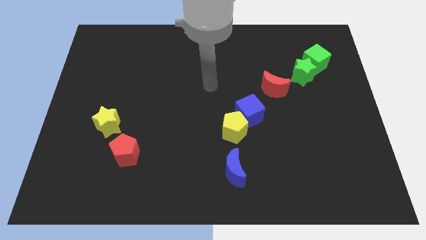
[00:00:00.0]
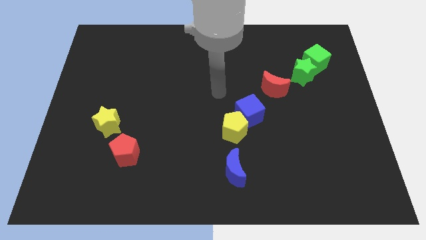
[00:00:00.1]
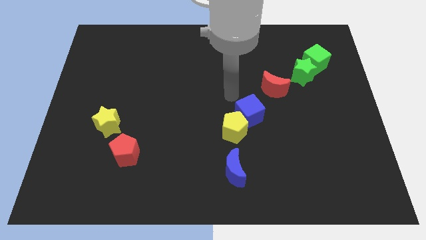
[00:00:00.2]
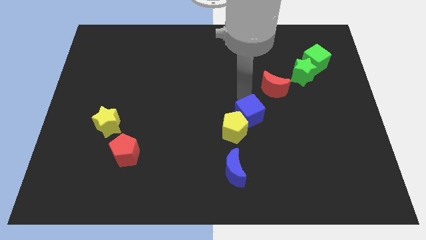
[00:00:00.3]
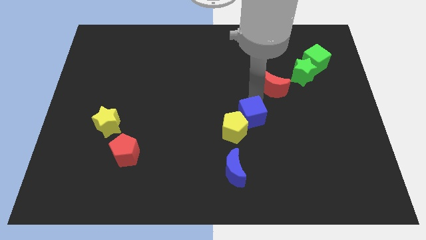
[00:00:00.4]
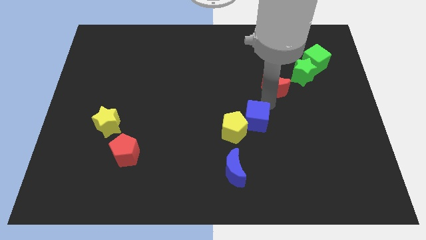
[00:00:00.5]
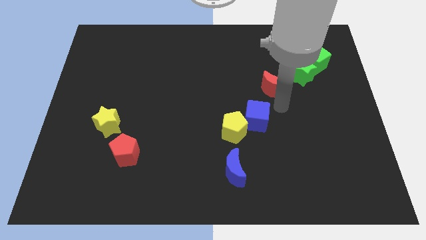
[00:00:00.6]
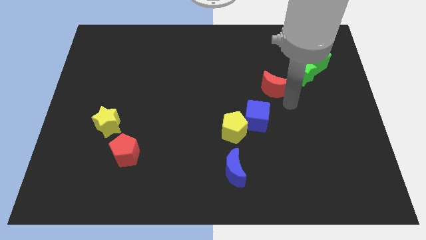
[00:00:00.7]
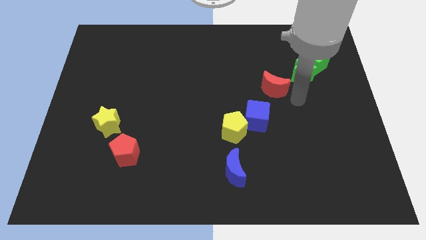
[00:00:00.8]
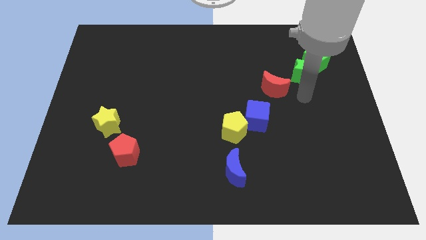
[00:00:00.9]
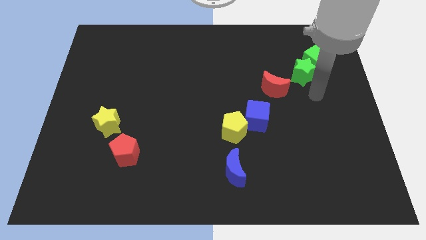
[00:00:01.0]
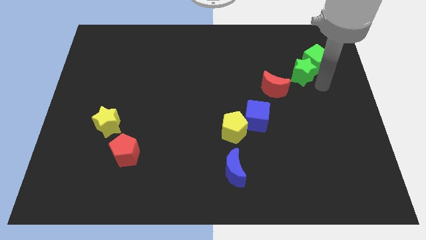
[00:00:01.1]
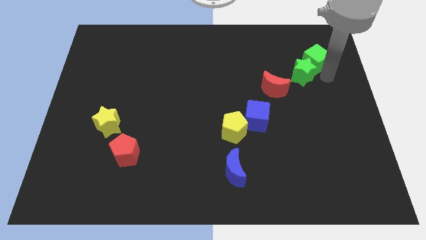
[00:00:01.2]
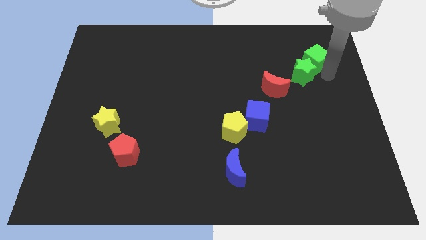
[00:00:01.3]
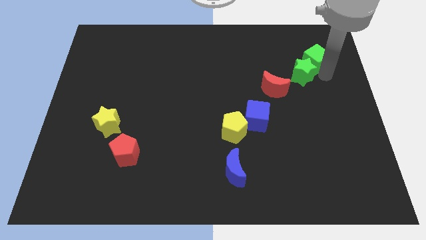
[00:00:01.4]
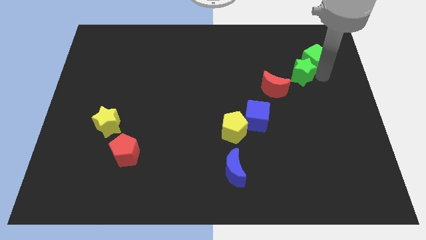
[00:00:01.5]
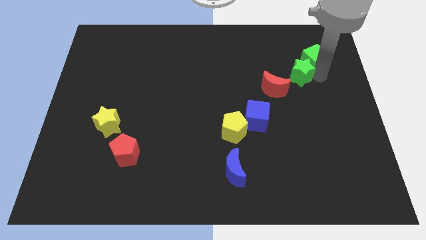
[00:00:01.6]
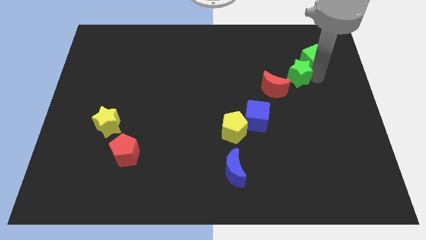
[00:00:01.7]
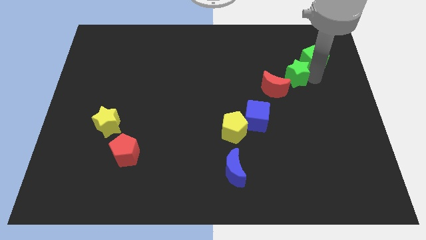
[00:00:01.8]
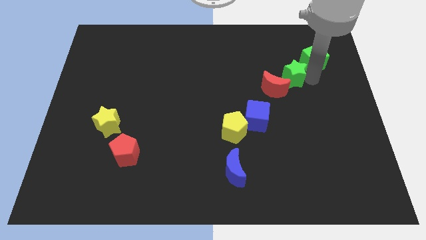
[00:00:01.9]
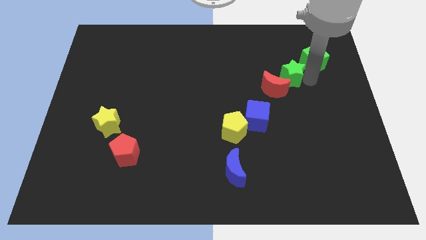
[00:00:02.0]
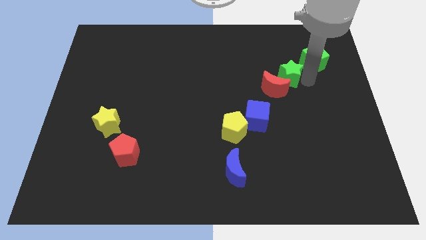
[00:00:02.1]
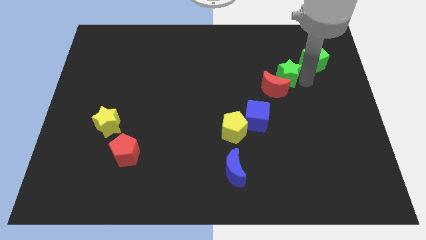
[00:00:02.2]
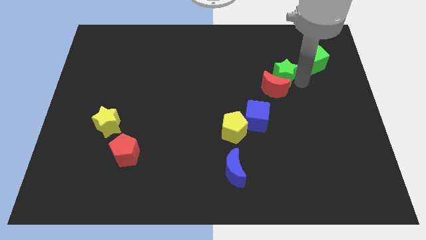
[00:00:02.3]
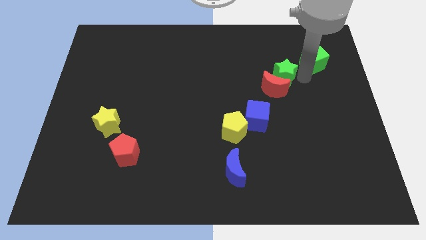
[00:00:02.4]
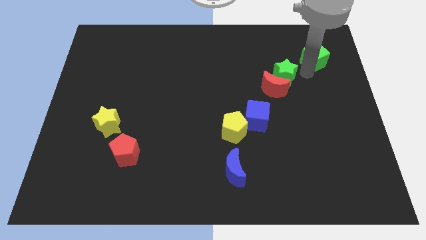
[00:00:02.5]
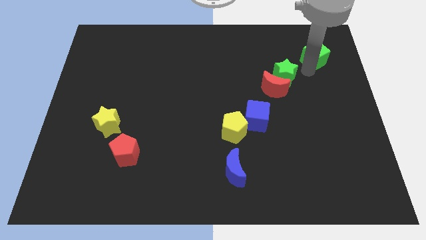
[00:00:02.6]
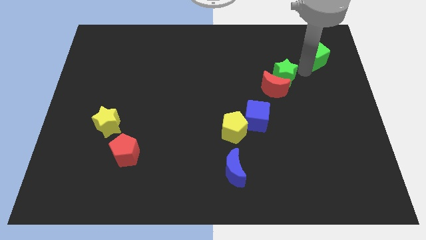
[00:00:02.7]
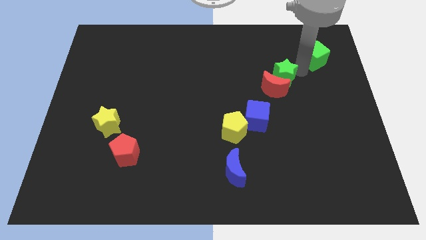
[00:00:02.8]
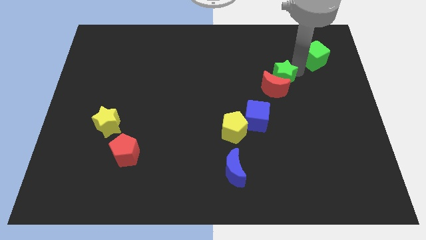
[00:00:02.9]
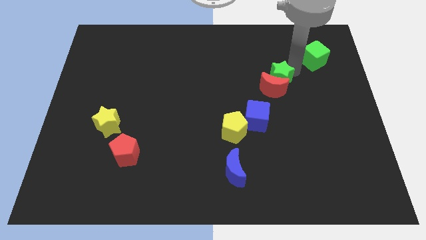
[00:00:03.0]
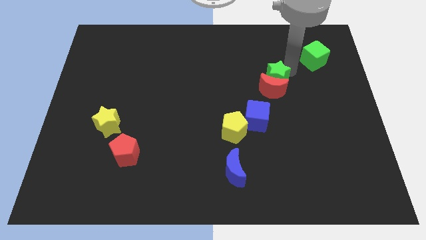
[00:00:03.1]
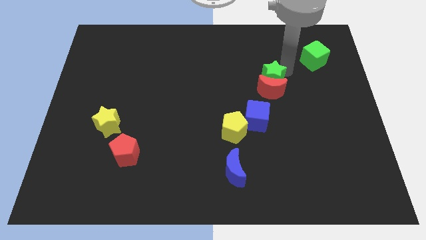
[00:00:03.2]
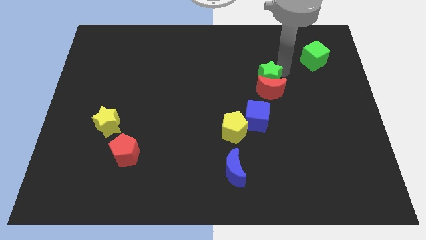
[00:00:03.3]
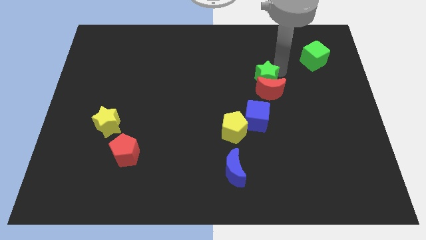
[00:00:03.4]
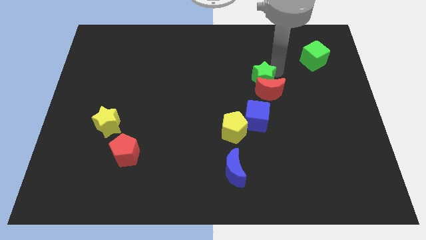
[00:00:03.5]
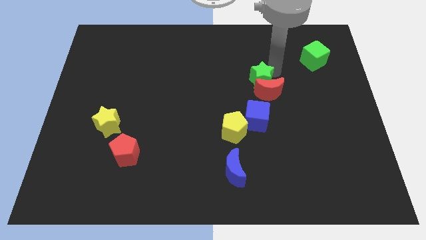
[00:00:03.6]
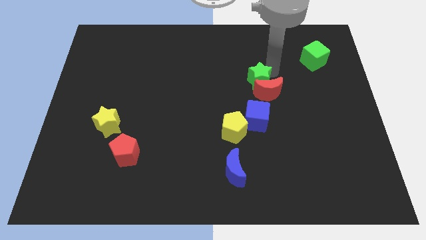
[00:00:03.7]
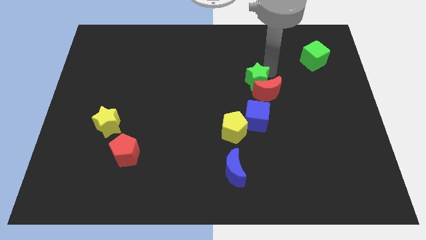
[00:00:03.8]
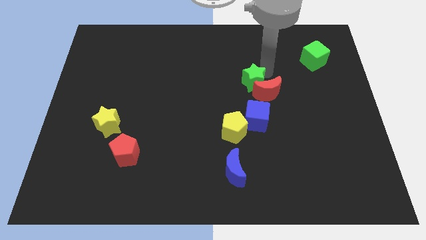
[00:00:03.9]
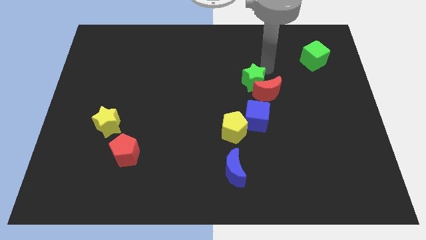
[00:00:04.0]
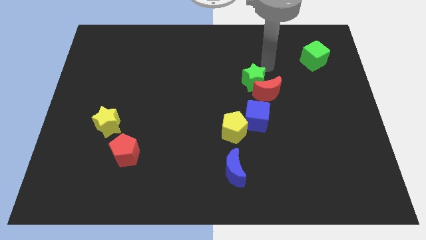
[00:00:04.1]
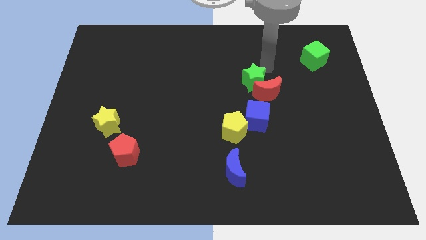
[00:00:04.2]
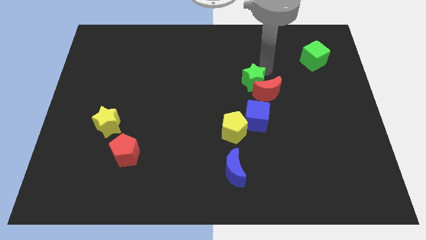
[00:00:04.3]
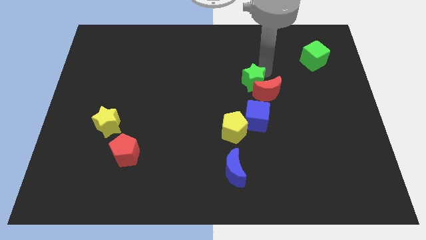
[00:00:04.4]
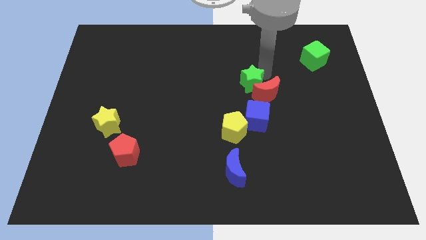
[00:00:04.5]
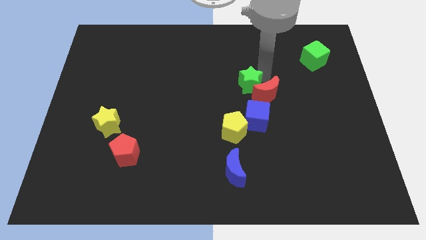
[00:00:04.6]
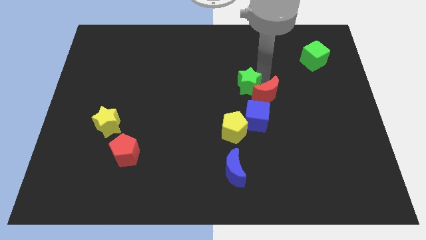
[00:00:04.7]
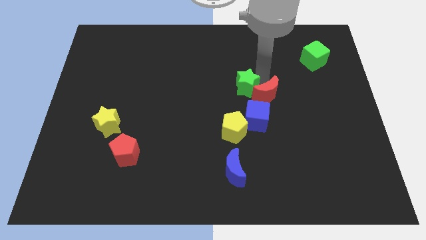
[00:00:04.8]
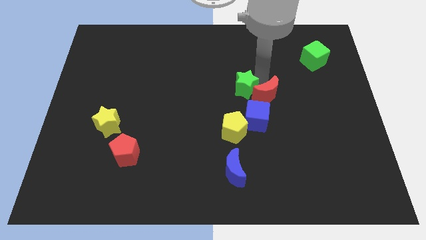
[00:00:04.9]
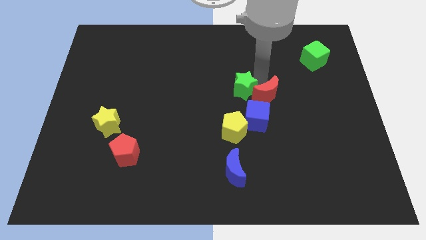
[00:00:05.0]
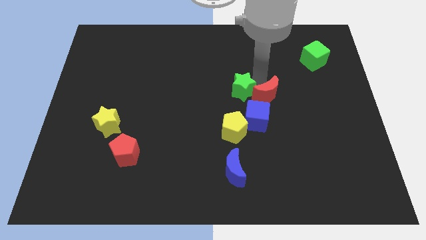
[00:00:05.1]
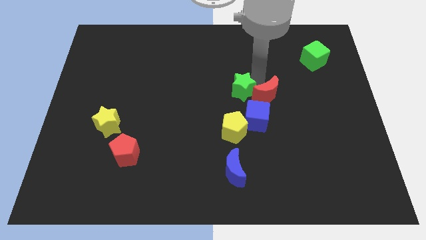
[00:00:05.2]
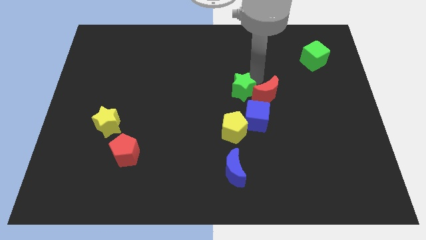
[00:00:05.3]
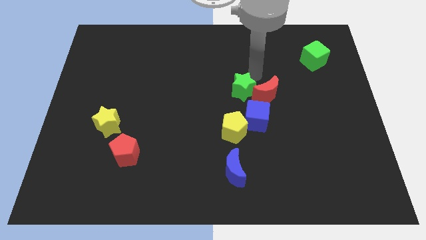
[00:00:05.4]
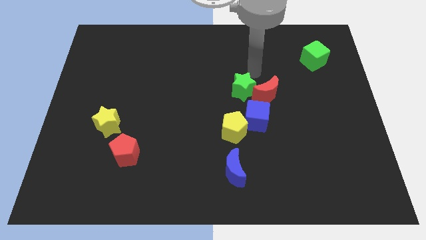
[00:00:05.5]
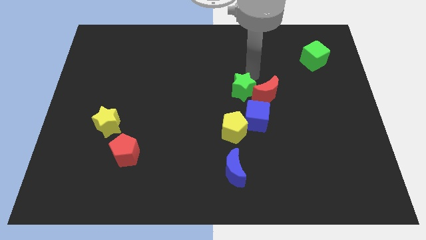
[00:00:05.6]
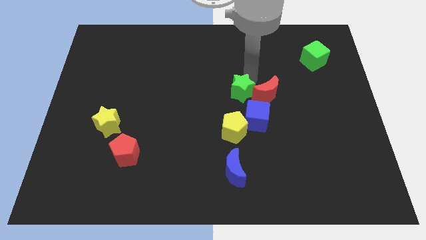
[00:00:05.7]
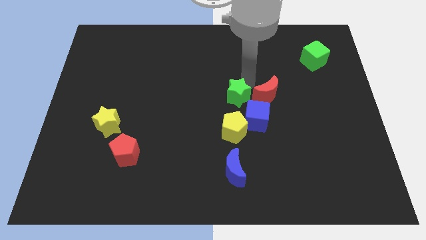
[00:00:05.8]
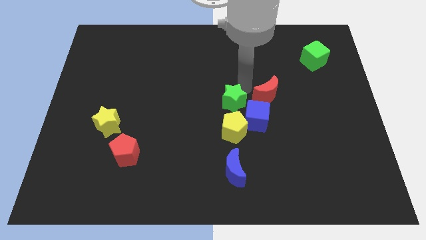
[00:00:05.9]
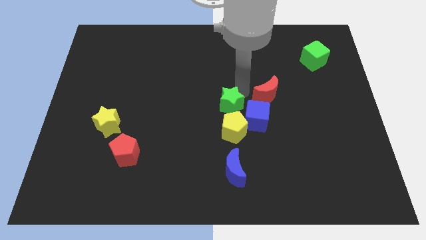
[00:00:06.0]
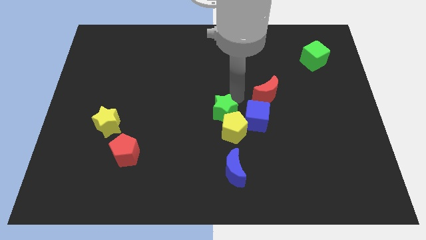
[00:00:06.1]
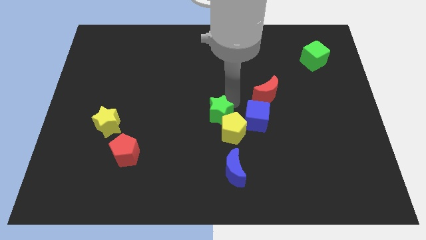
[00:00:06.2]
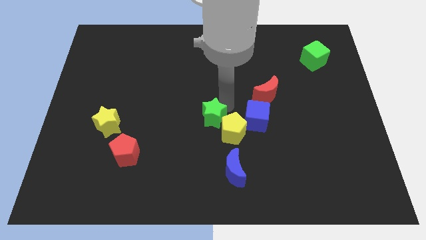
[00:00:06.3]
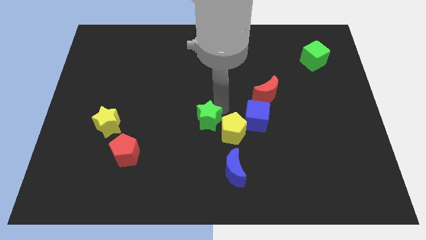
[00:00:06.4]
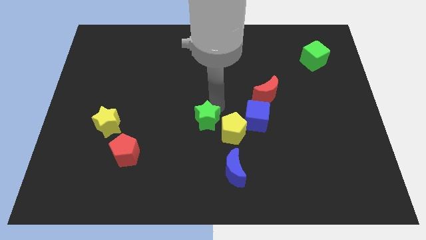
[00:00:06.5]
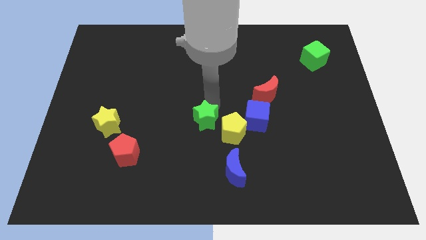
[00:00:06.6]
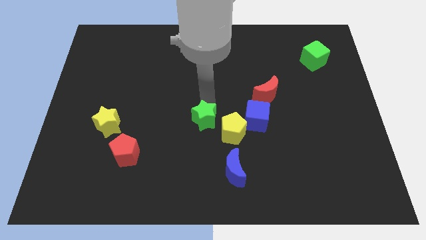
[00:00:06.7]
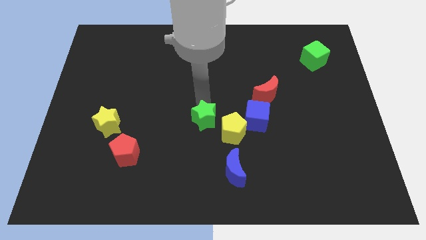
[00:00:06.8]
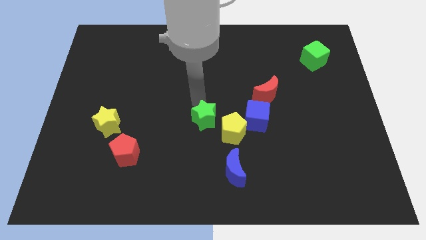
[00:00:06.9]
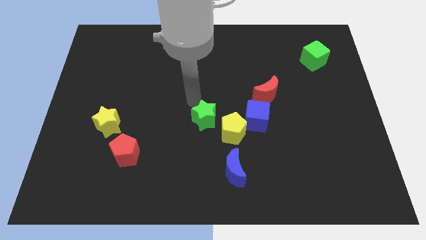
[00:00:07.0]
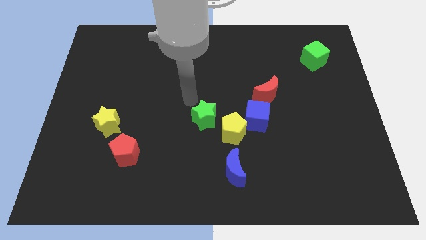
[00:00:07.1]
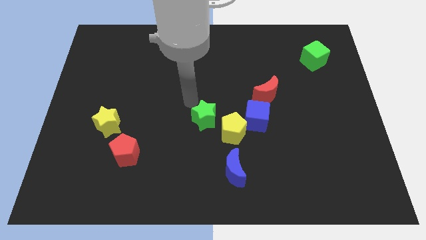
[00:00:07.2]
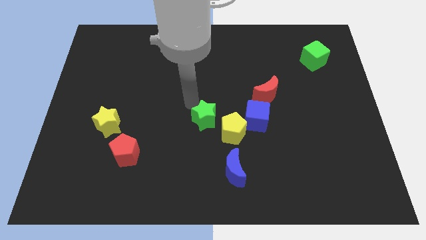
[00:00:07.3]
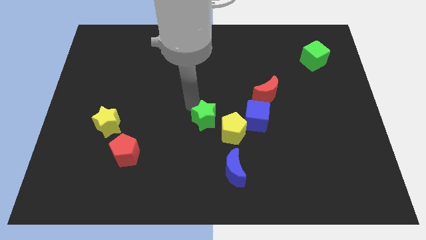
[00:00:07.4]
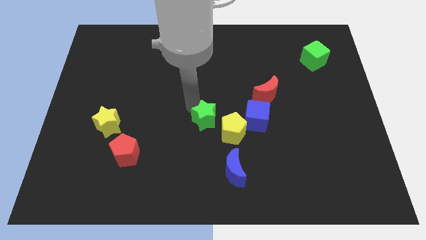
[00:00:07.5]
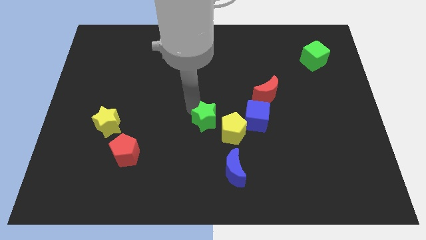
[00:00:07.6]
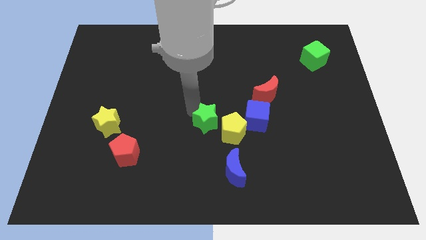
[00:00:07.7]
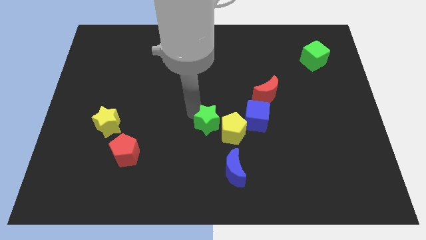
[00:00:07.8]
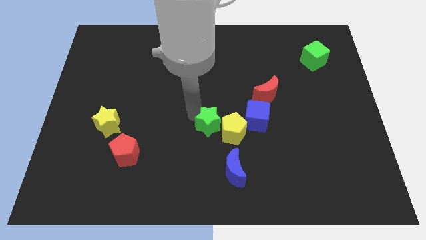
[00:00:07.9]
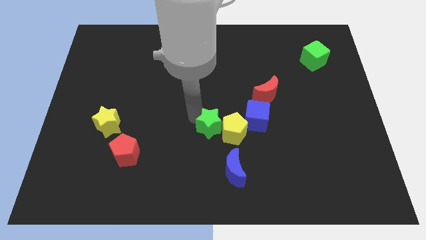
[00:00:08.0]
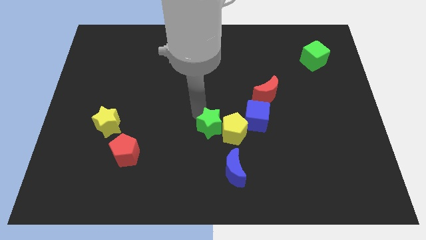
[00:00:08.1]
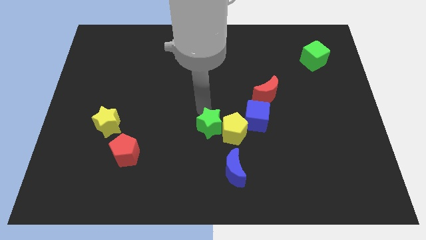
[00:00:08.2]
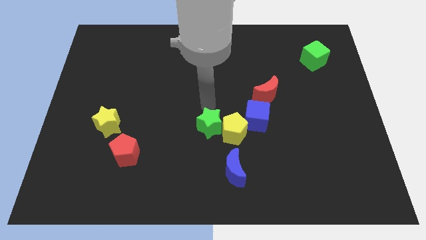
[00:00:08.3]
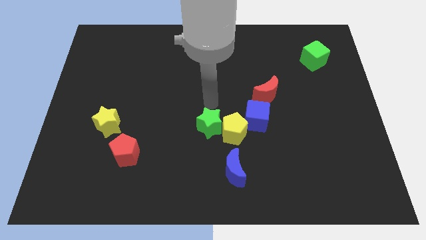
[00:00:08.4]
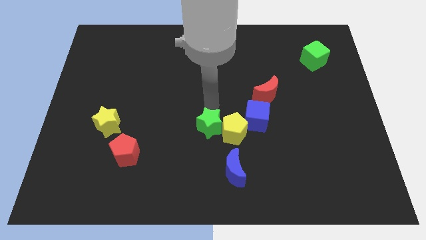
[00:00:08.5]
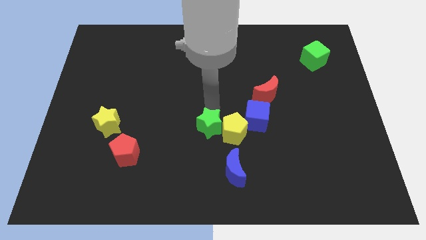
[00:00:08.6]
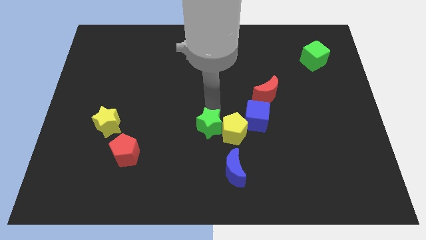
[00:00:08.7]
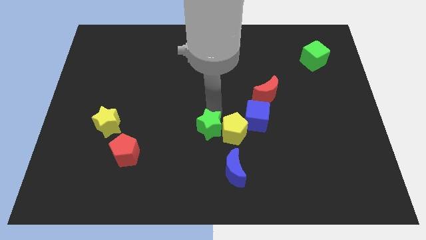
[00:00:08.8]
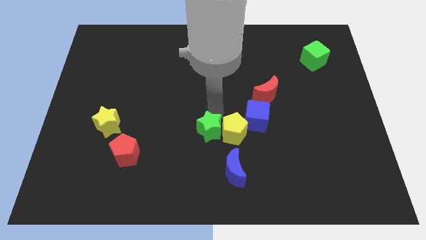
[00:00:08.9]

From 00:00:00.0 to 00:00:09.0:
put the green star diagonally up and to the left of the blue moon
